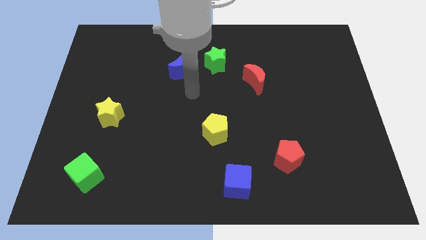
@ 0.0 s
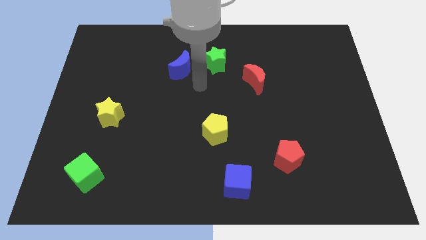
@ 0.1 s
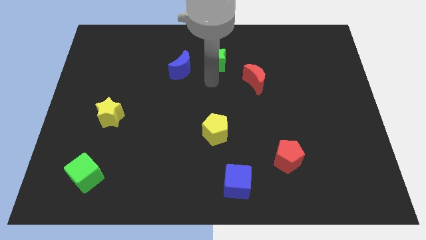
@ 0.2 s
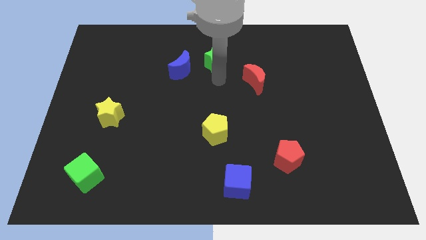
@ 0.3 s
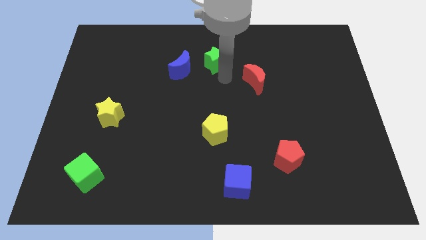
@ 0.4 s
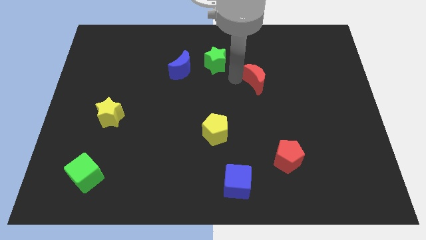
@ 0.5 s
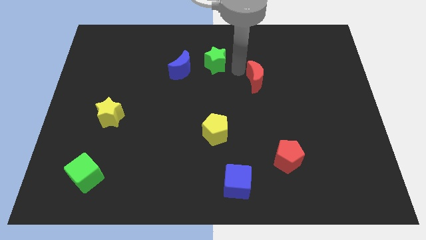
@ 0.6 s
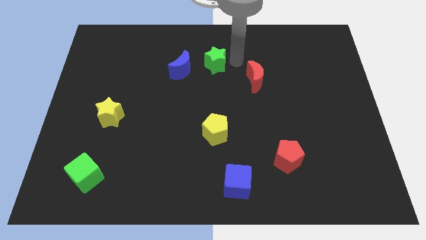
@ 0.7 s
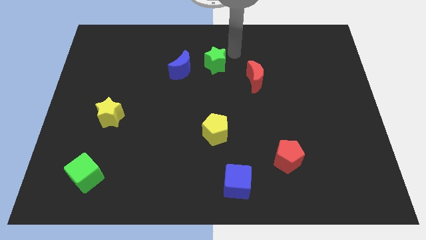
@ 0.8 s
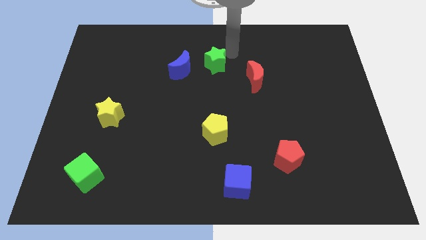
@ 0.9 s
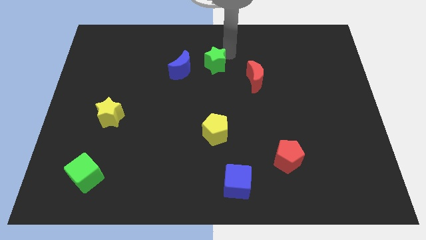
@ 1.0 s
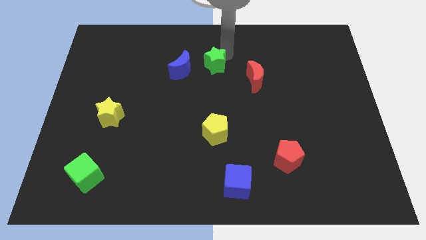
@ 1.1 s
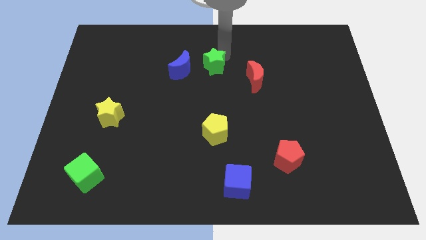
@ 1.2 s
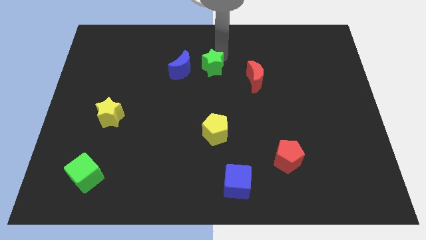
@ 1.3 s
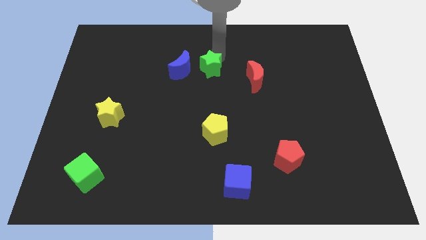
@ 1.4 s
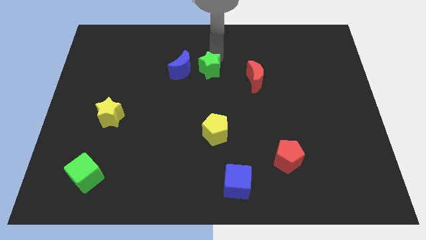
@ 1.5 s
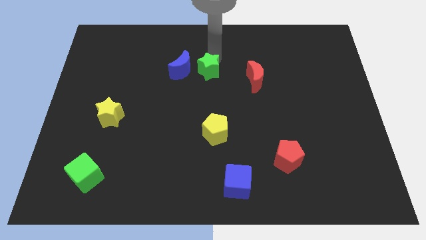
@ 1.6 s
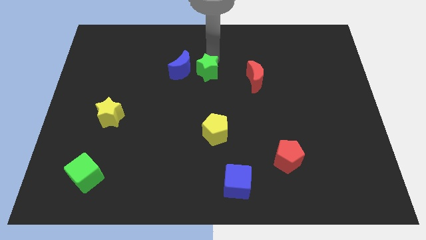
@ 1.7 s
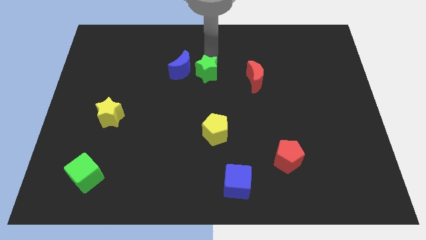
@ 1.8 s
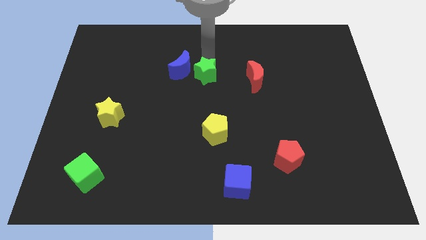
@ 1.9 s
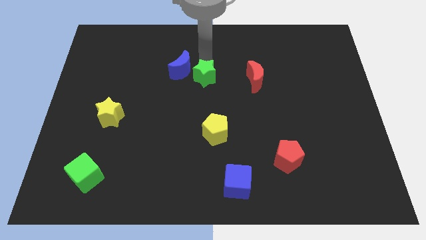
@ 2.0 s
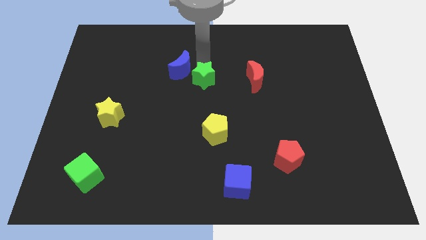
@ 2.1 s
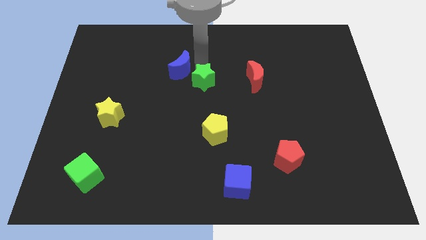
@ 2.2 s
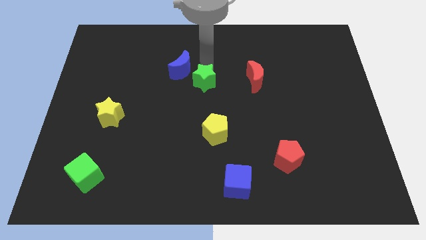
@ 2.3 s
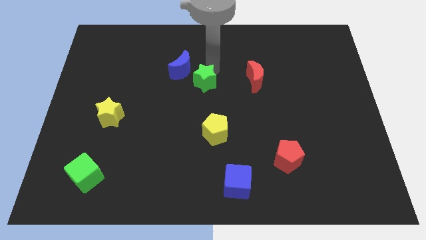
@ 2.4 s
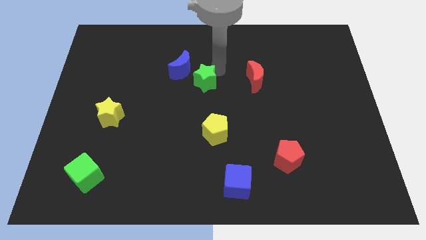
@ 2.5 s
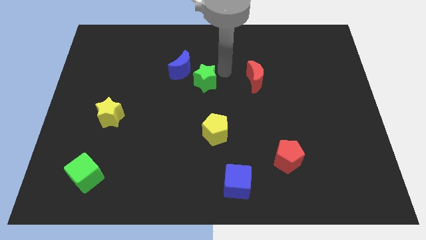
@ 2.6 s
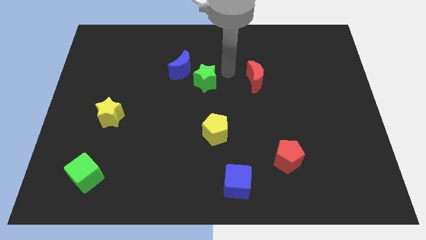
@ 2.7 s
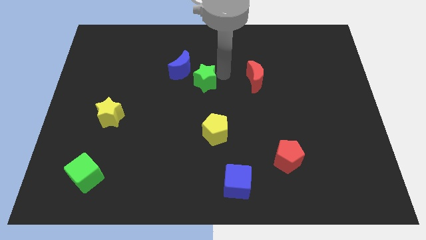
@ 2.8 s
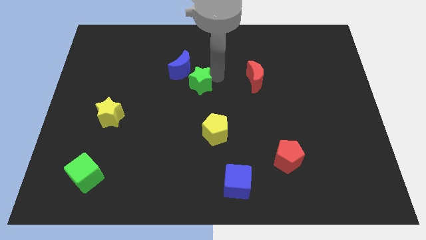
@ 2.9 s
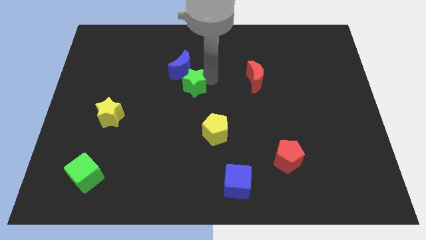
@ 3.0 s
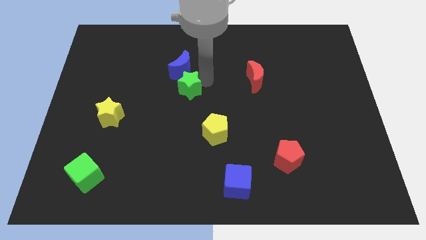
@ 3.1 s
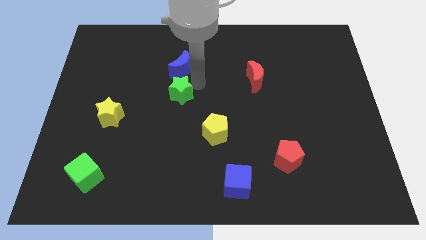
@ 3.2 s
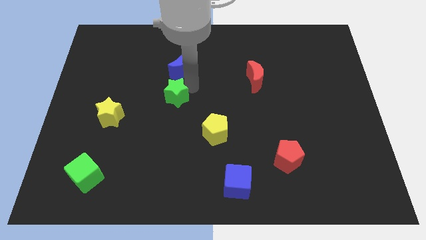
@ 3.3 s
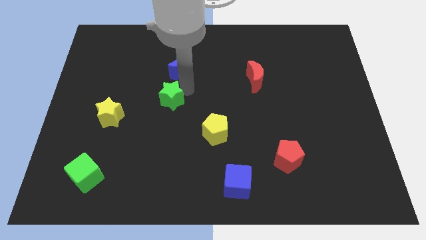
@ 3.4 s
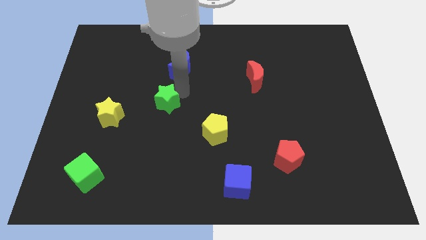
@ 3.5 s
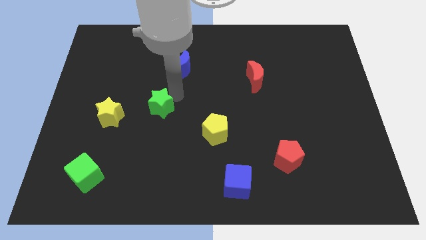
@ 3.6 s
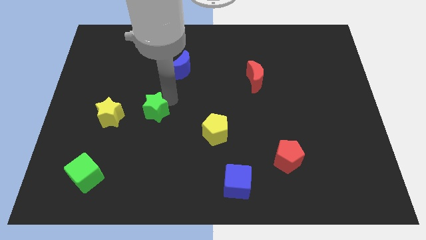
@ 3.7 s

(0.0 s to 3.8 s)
move the green star down and then left

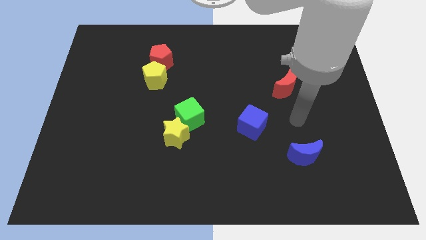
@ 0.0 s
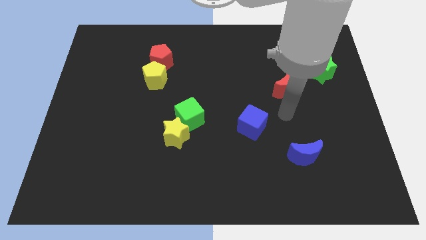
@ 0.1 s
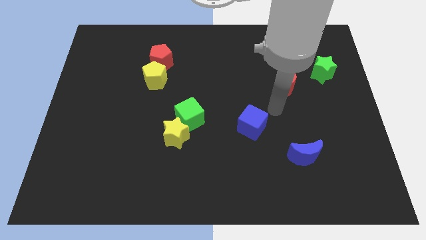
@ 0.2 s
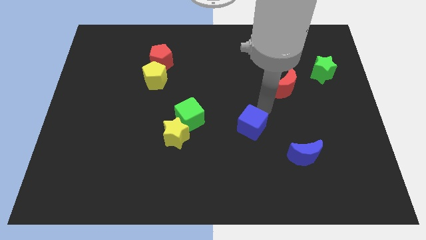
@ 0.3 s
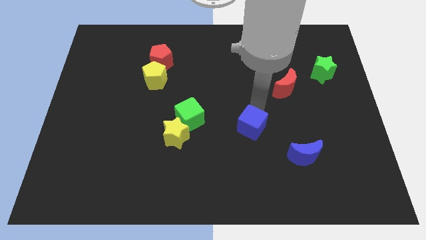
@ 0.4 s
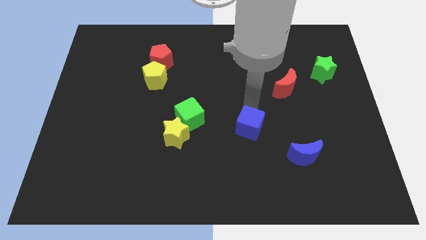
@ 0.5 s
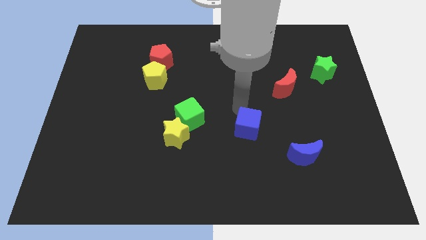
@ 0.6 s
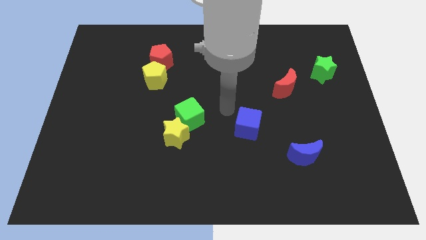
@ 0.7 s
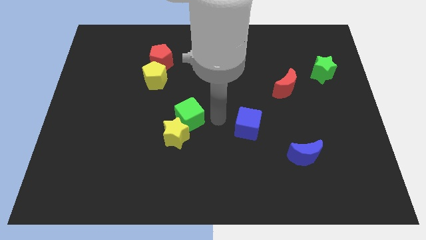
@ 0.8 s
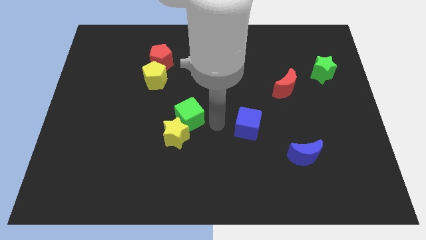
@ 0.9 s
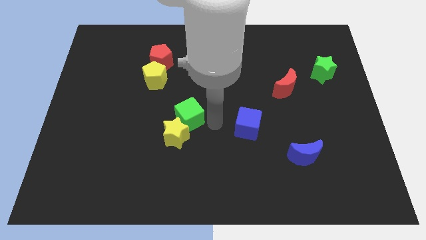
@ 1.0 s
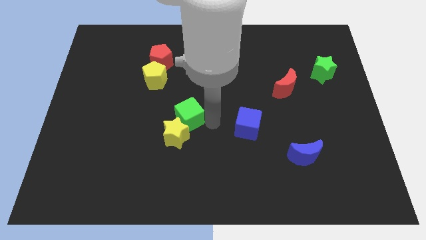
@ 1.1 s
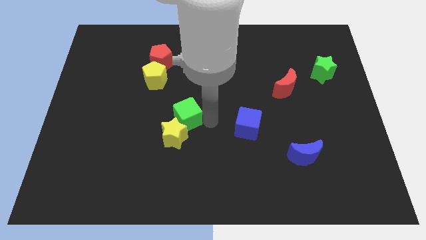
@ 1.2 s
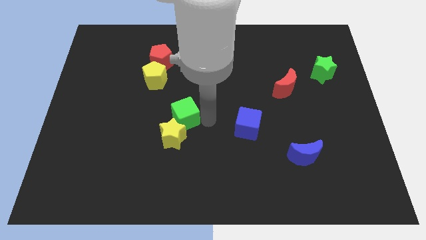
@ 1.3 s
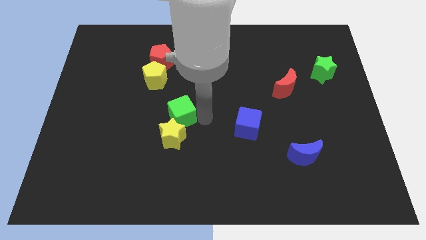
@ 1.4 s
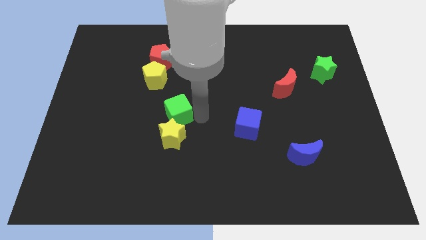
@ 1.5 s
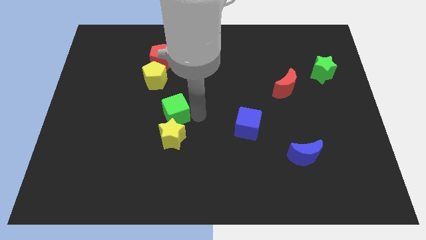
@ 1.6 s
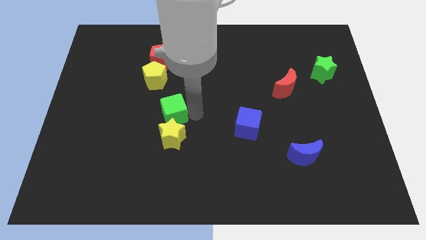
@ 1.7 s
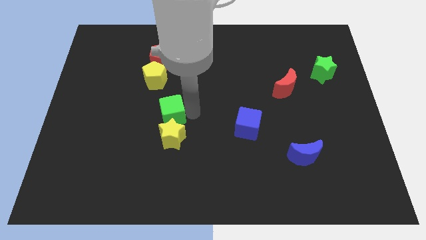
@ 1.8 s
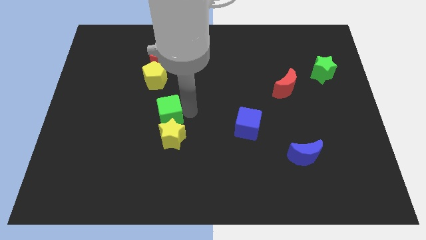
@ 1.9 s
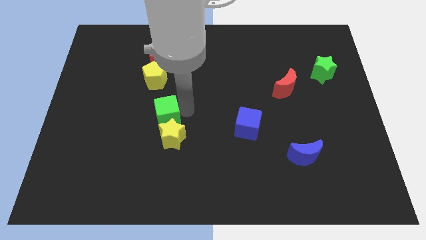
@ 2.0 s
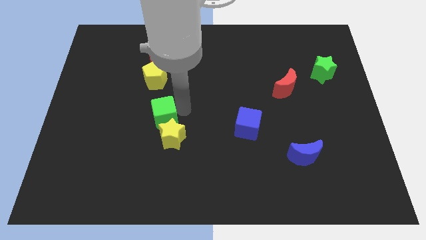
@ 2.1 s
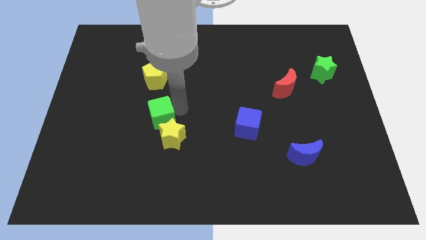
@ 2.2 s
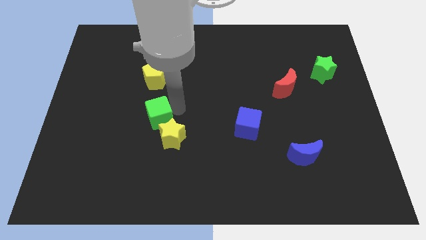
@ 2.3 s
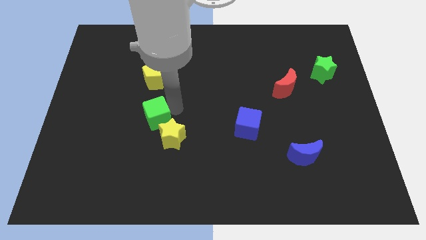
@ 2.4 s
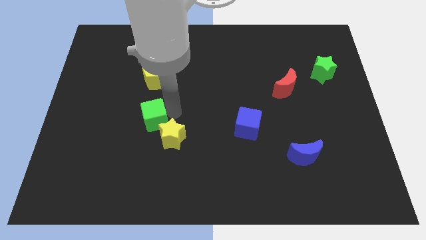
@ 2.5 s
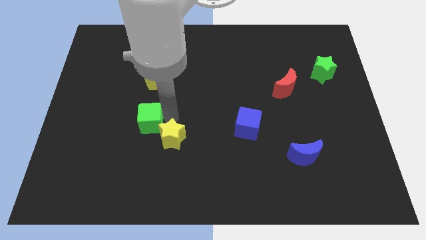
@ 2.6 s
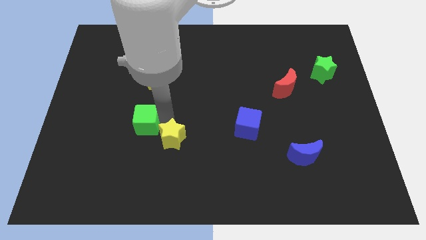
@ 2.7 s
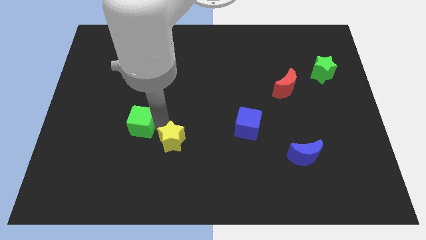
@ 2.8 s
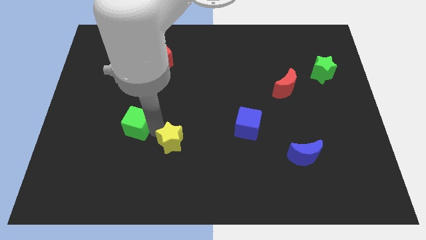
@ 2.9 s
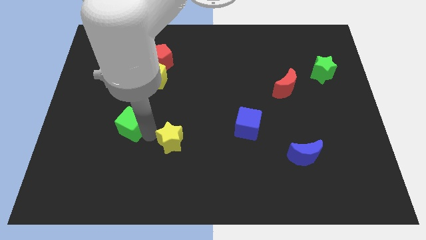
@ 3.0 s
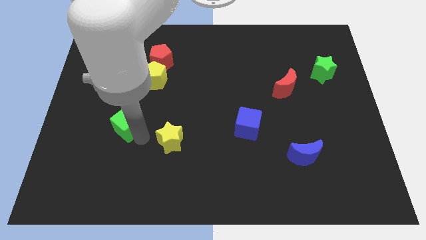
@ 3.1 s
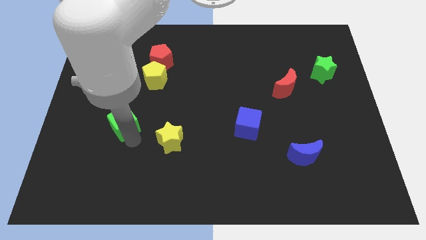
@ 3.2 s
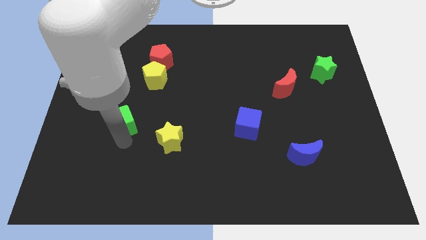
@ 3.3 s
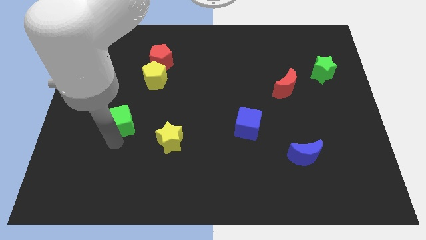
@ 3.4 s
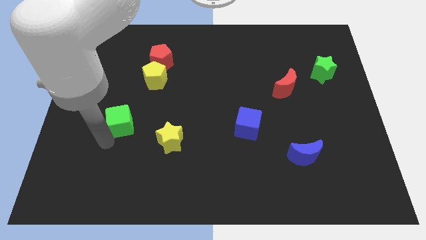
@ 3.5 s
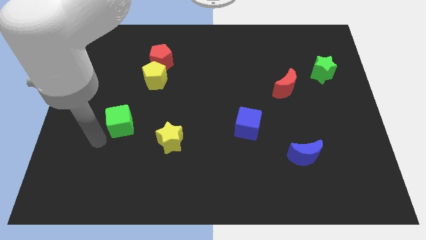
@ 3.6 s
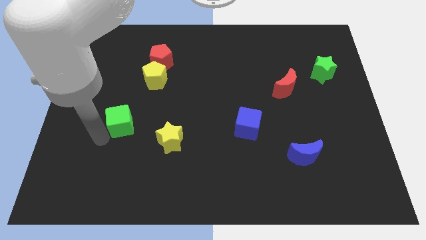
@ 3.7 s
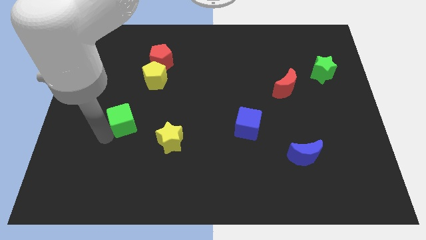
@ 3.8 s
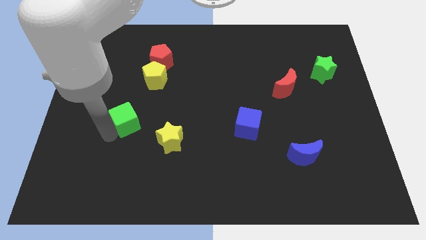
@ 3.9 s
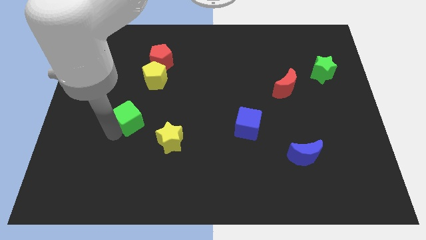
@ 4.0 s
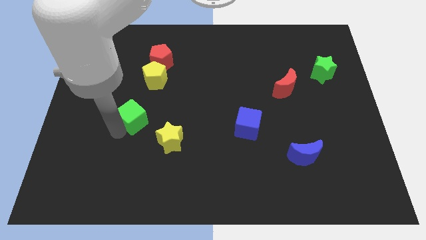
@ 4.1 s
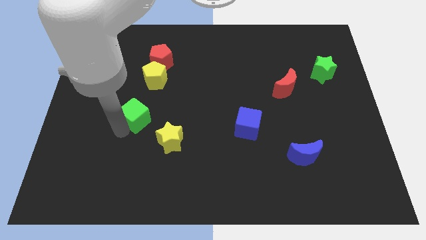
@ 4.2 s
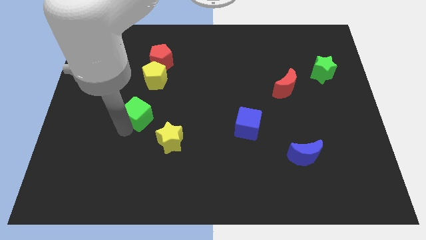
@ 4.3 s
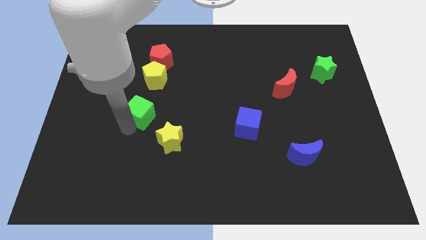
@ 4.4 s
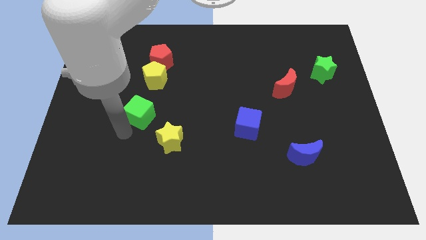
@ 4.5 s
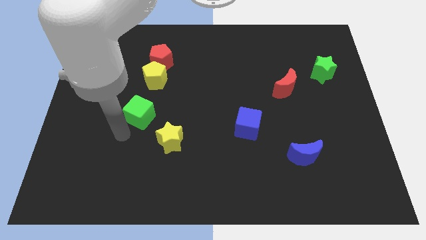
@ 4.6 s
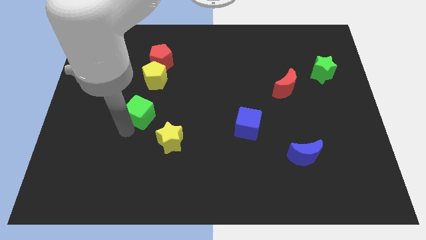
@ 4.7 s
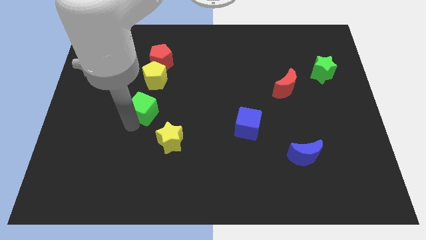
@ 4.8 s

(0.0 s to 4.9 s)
move the green cube diagonally up and to the left a bit
